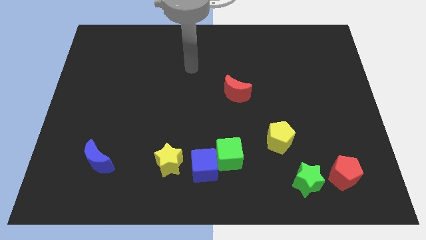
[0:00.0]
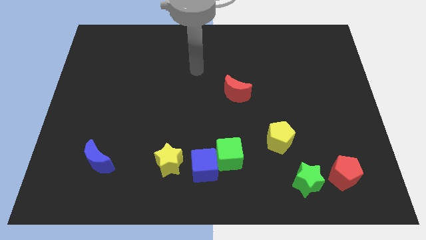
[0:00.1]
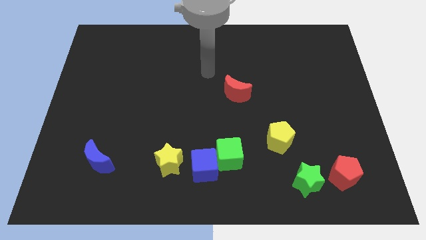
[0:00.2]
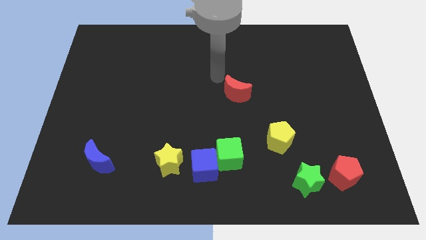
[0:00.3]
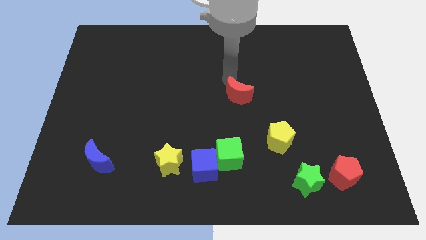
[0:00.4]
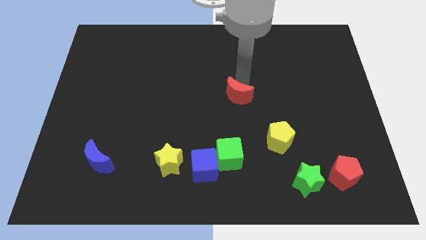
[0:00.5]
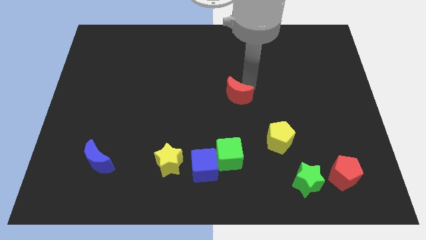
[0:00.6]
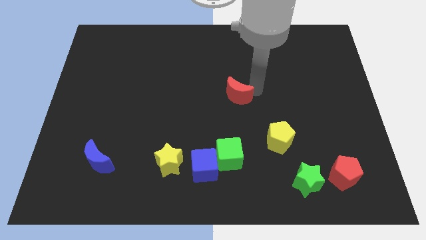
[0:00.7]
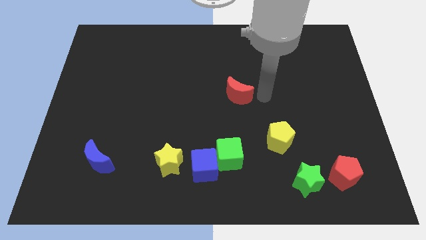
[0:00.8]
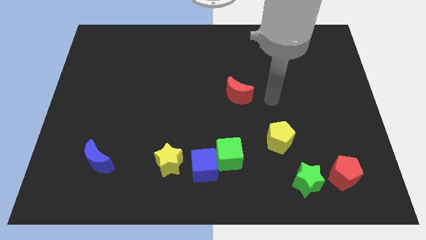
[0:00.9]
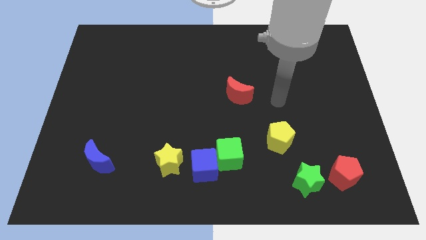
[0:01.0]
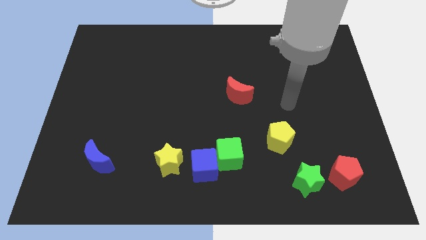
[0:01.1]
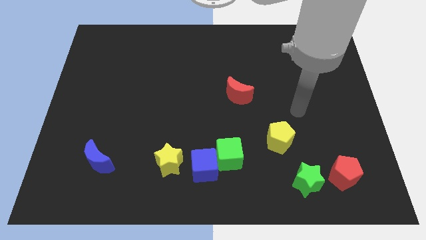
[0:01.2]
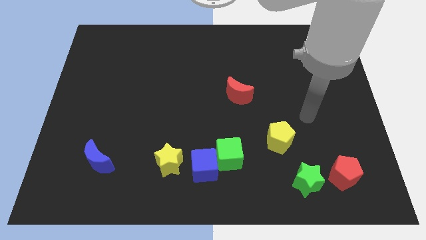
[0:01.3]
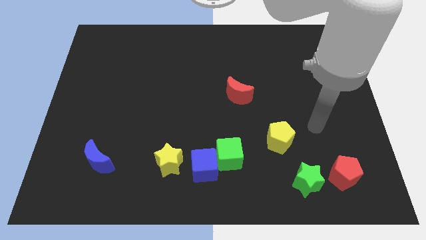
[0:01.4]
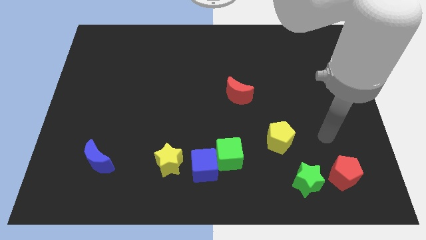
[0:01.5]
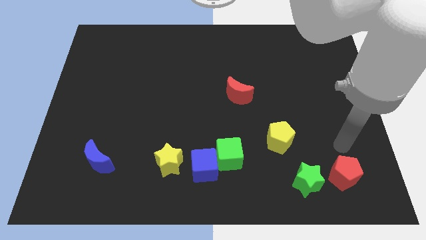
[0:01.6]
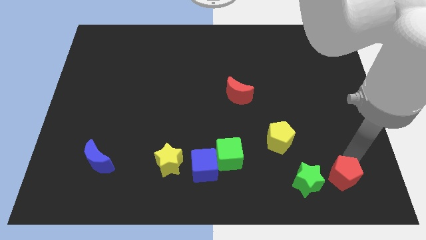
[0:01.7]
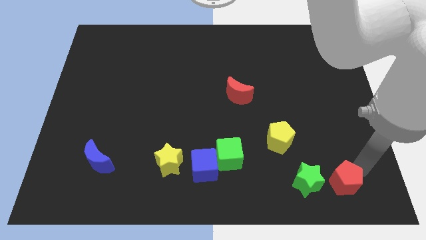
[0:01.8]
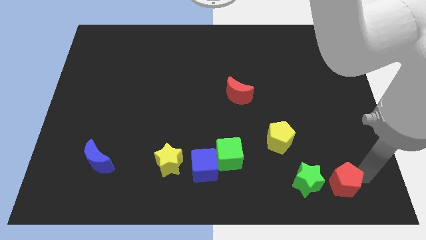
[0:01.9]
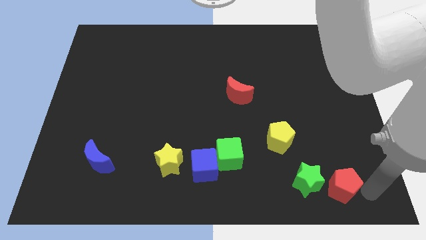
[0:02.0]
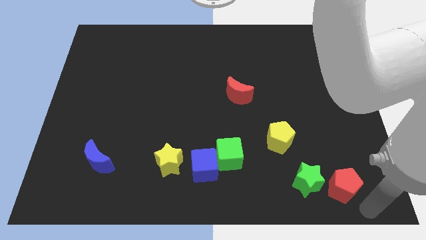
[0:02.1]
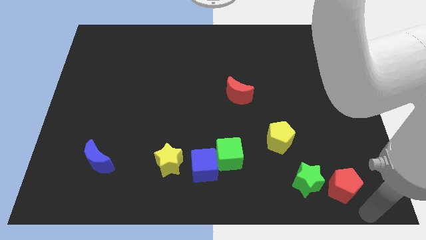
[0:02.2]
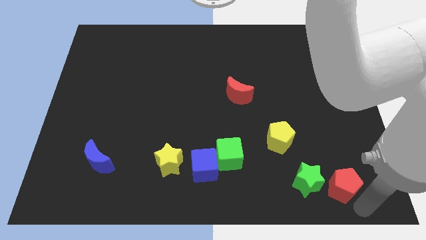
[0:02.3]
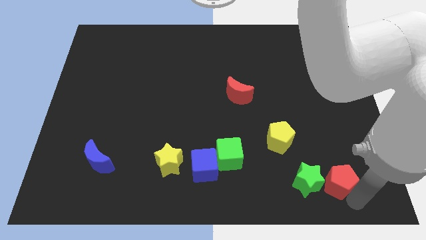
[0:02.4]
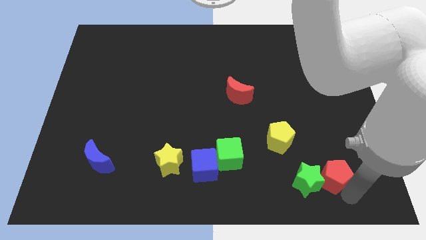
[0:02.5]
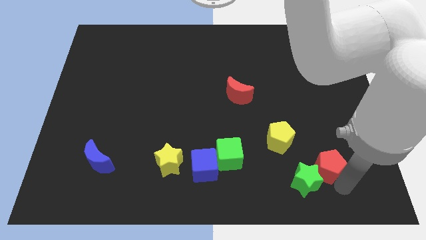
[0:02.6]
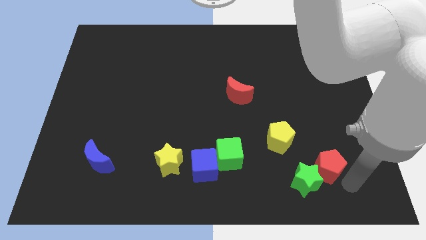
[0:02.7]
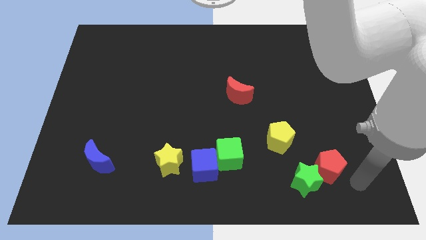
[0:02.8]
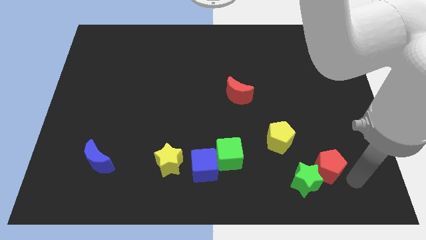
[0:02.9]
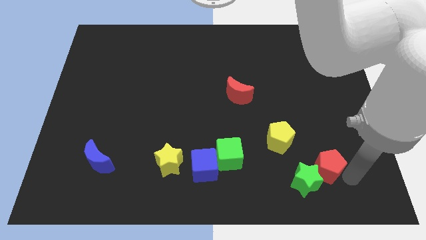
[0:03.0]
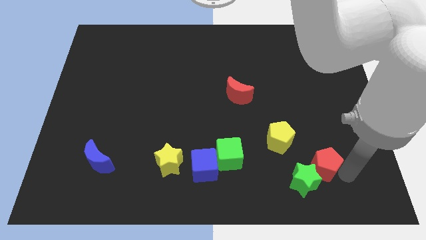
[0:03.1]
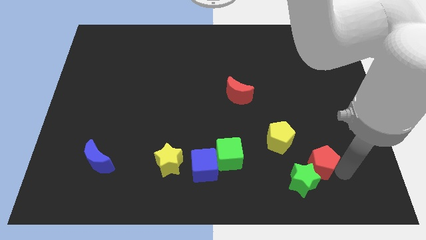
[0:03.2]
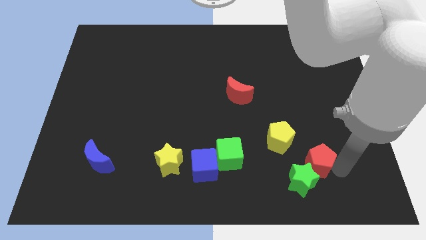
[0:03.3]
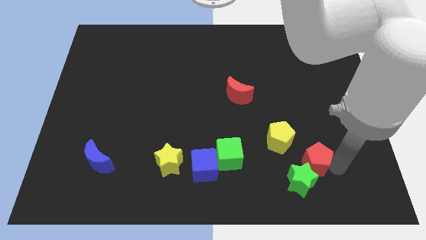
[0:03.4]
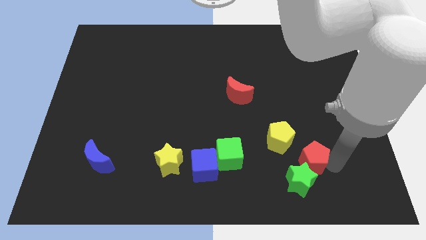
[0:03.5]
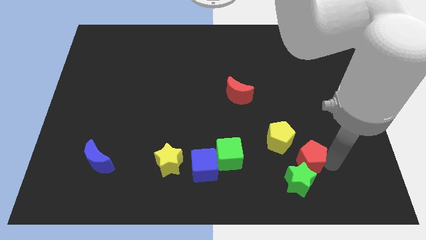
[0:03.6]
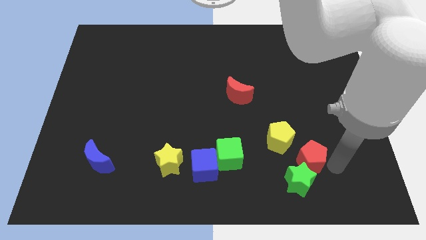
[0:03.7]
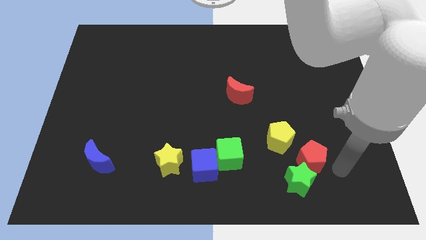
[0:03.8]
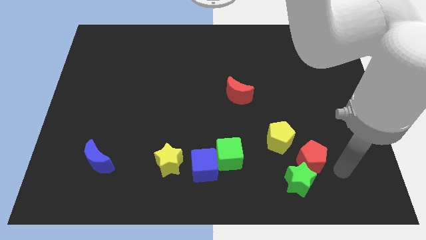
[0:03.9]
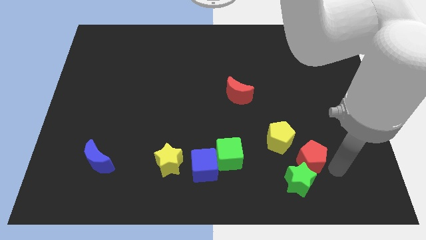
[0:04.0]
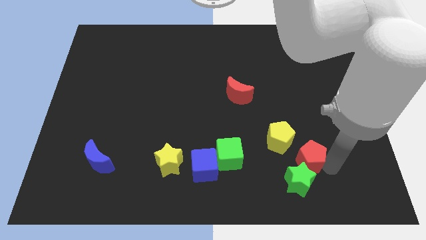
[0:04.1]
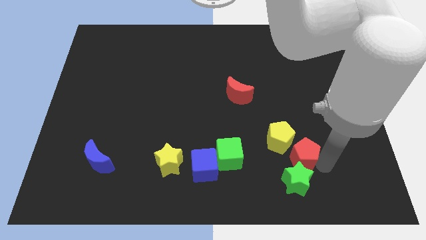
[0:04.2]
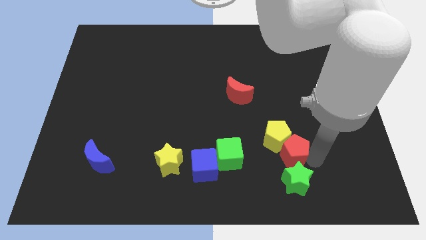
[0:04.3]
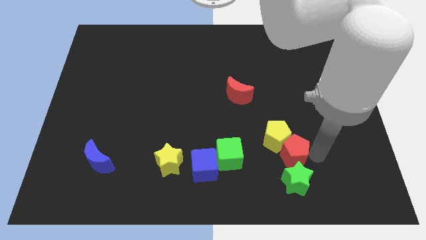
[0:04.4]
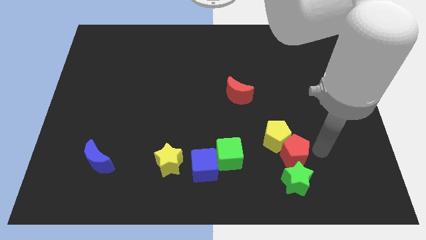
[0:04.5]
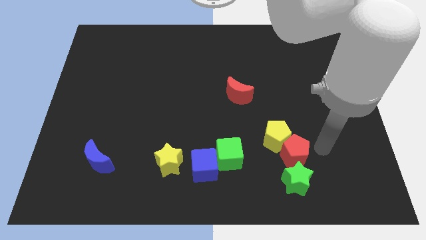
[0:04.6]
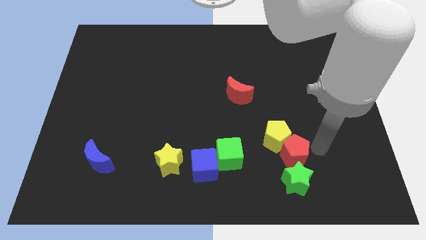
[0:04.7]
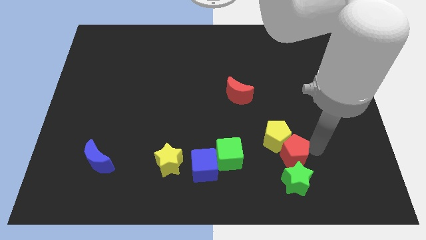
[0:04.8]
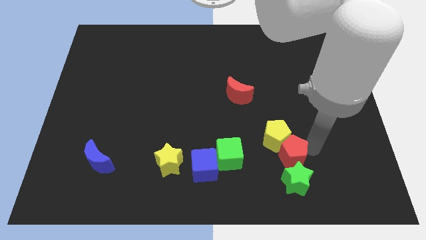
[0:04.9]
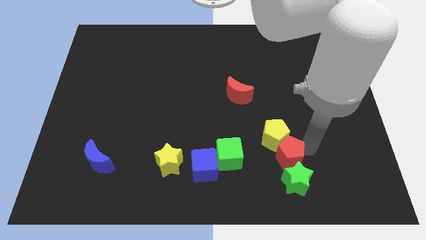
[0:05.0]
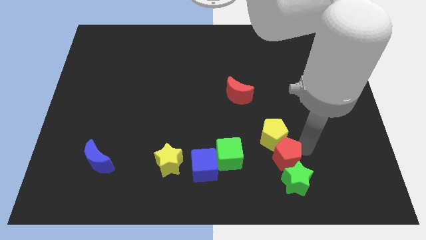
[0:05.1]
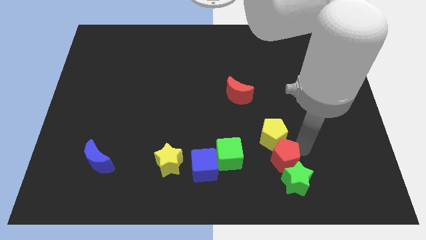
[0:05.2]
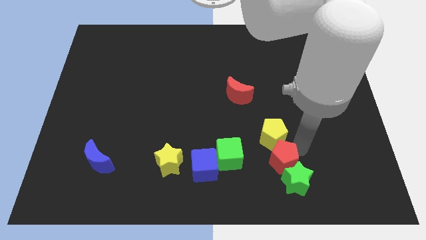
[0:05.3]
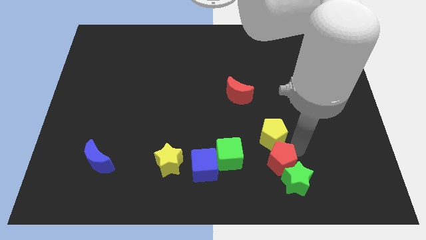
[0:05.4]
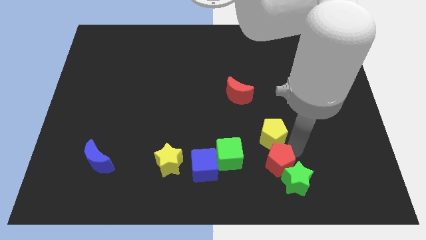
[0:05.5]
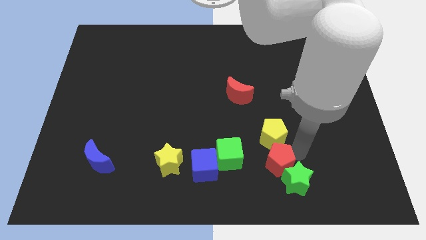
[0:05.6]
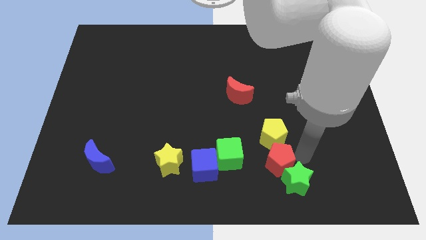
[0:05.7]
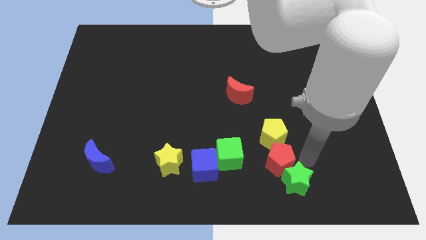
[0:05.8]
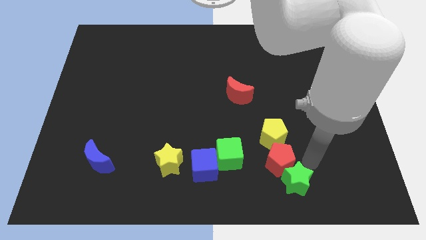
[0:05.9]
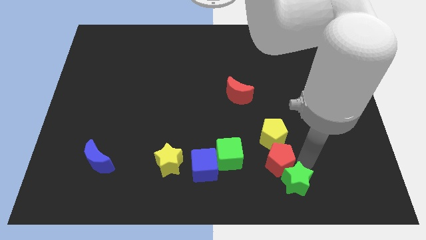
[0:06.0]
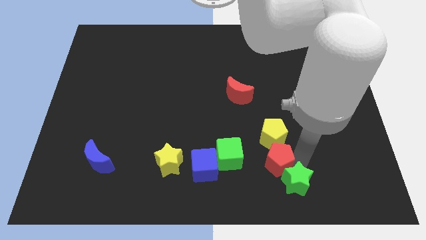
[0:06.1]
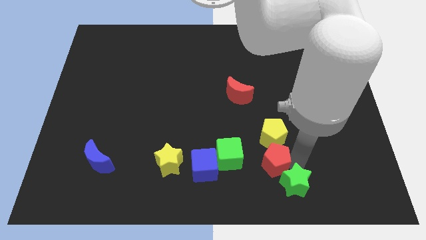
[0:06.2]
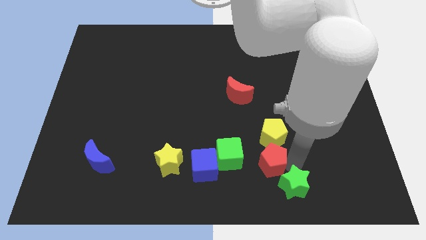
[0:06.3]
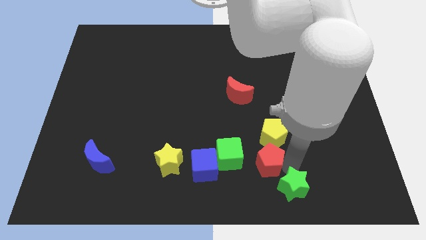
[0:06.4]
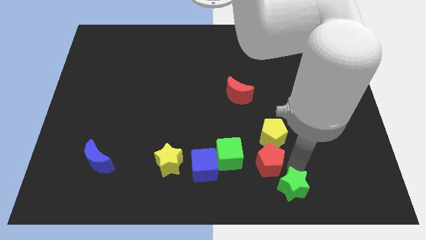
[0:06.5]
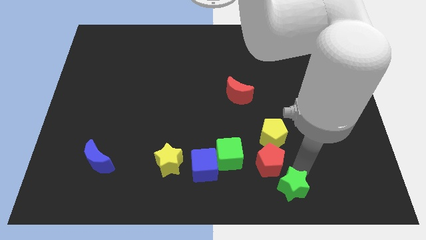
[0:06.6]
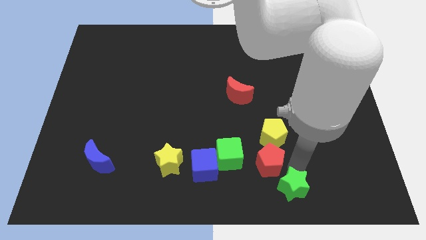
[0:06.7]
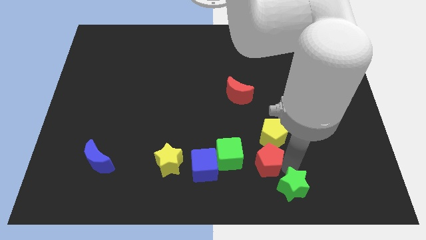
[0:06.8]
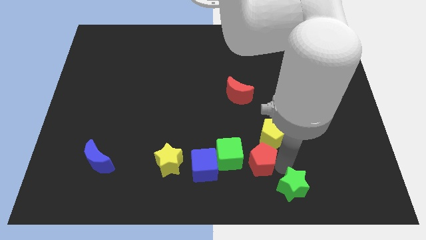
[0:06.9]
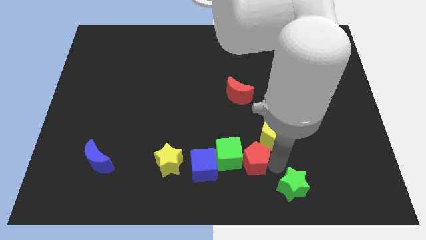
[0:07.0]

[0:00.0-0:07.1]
move the red pentagon to the green cube
